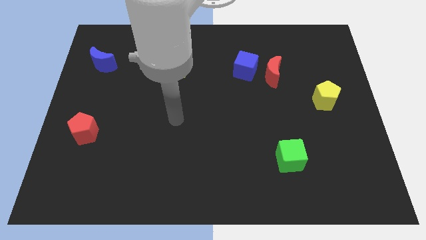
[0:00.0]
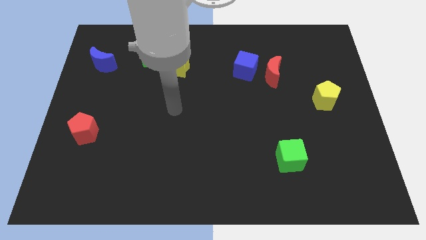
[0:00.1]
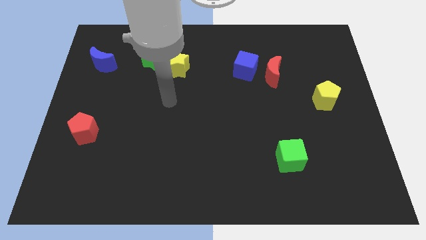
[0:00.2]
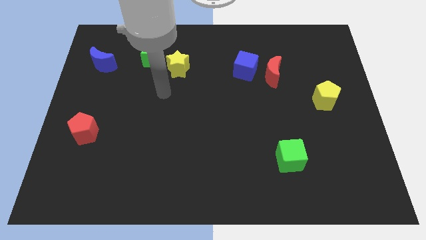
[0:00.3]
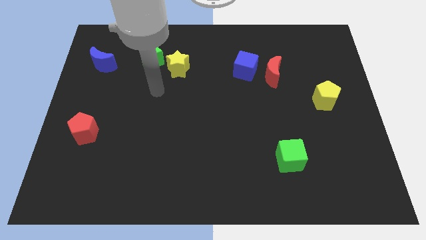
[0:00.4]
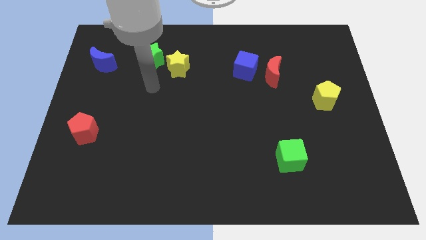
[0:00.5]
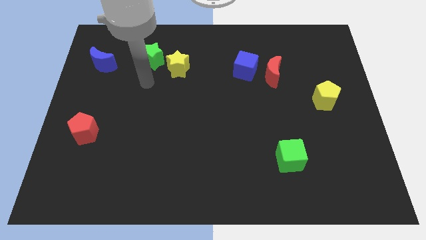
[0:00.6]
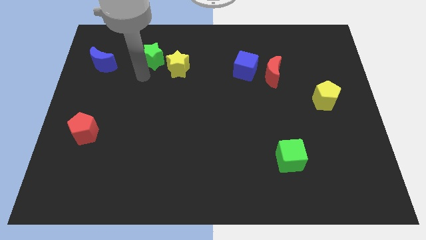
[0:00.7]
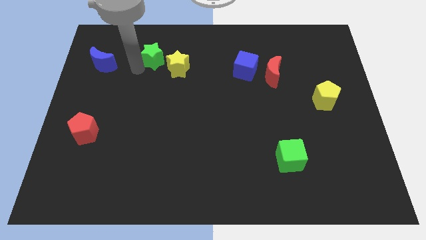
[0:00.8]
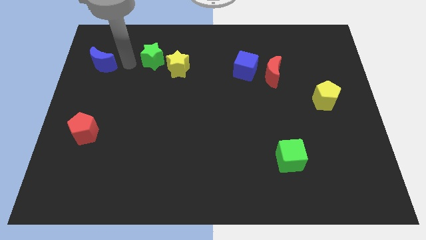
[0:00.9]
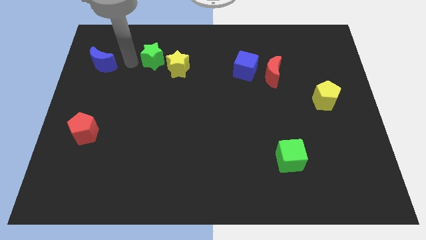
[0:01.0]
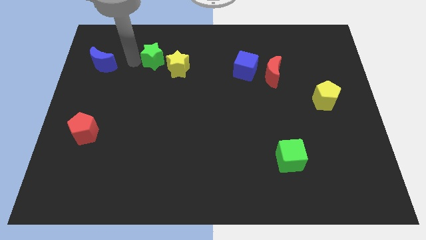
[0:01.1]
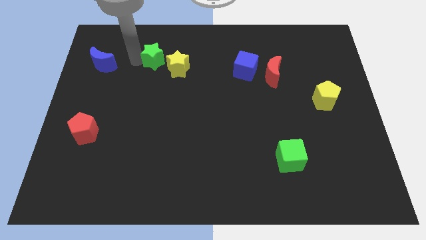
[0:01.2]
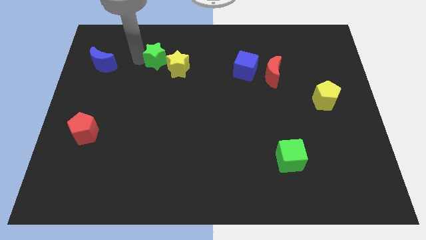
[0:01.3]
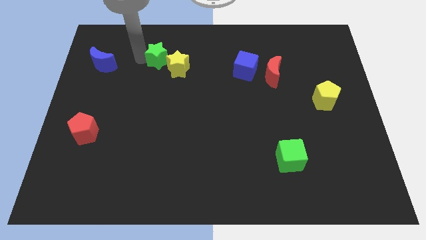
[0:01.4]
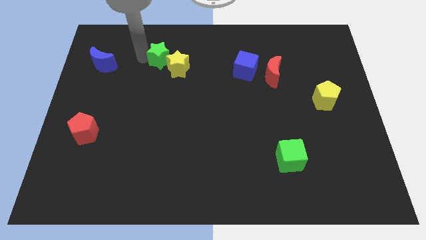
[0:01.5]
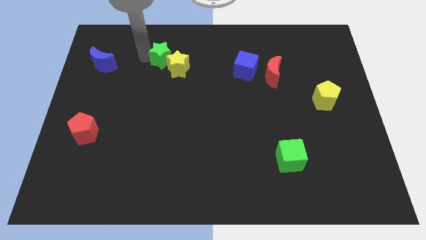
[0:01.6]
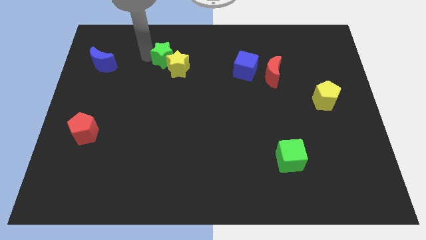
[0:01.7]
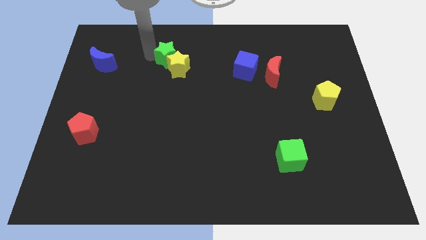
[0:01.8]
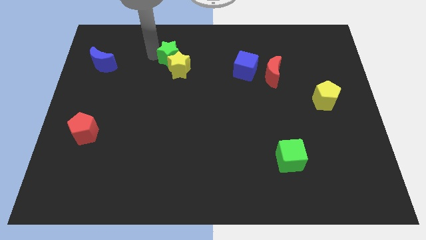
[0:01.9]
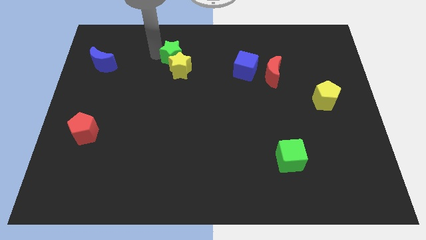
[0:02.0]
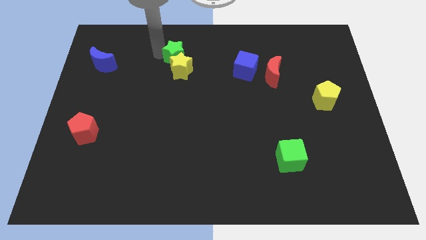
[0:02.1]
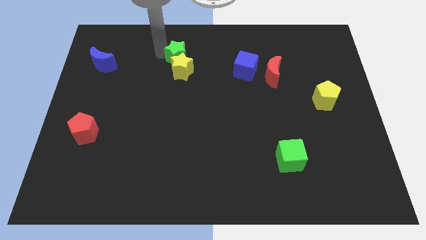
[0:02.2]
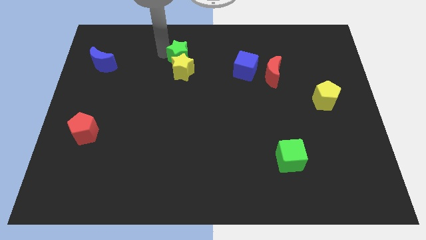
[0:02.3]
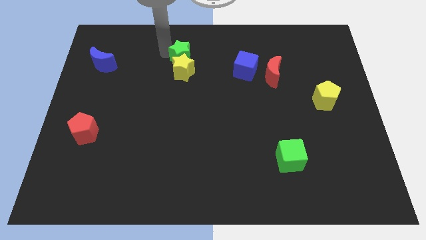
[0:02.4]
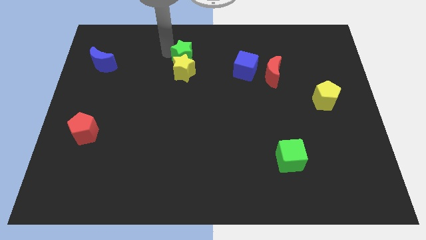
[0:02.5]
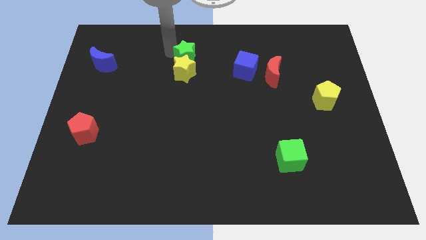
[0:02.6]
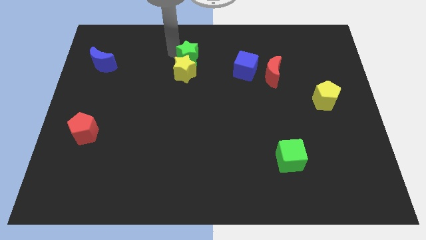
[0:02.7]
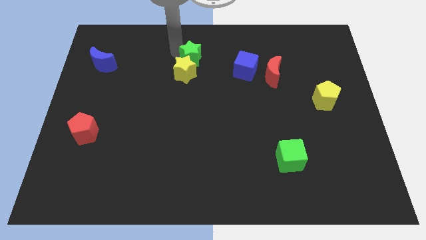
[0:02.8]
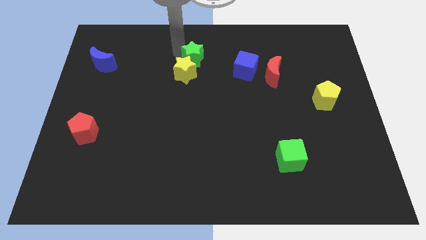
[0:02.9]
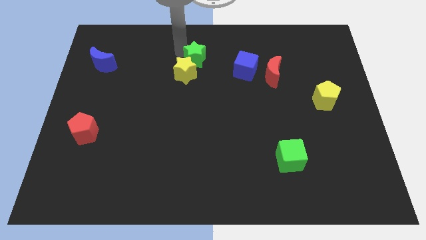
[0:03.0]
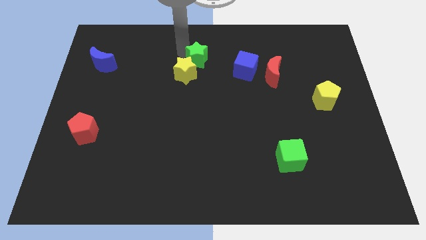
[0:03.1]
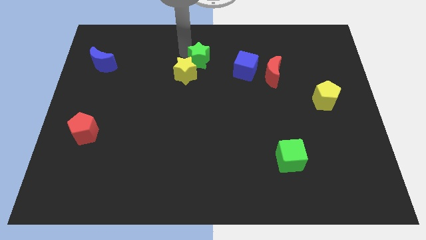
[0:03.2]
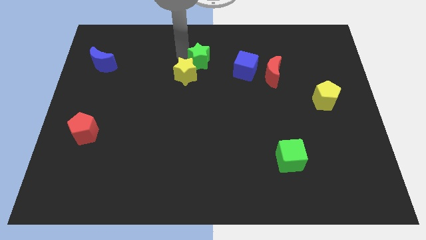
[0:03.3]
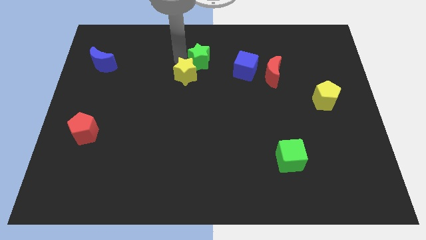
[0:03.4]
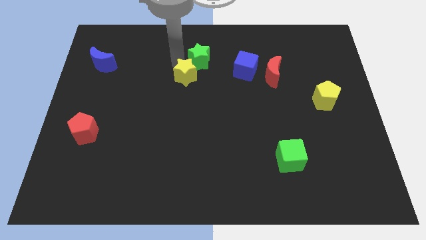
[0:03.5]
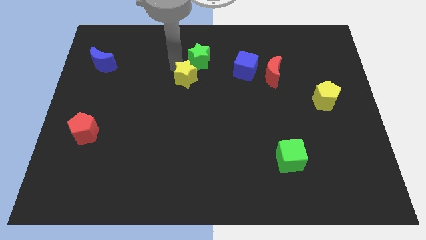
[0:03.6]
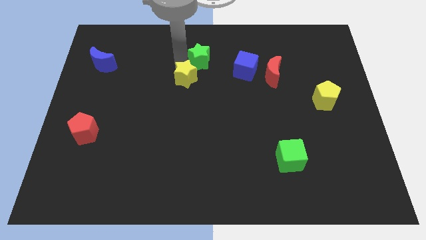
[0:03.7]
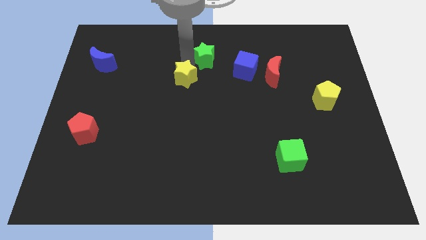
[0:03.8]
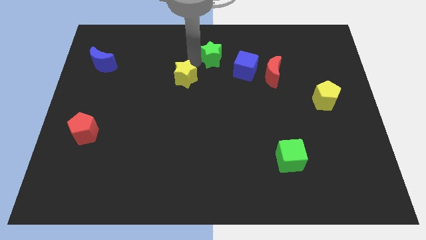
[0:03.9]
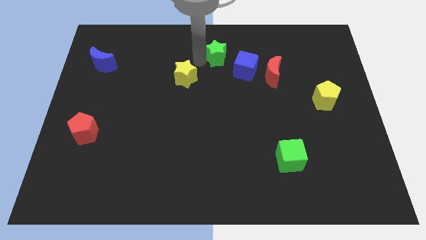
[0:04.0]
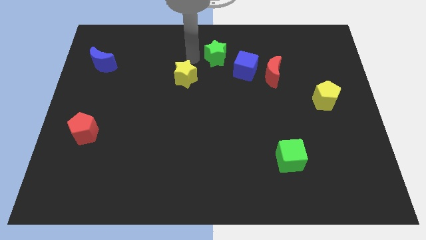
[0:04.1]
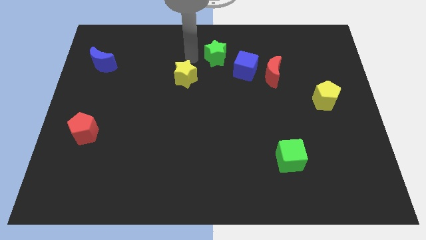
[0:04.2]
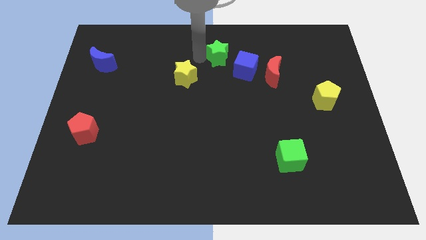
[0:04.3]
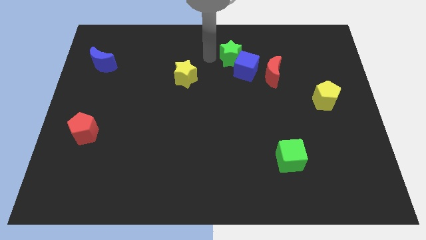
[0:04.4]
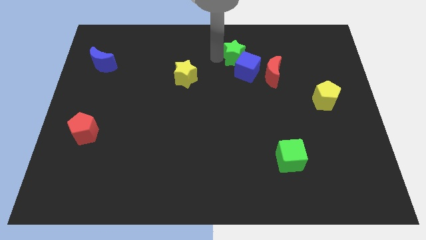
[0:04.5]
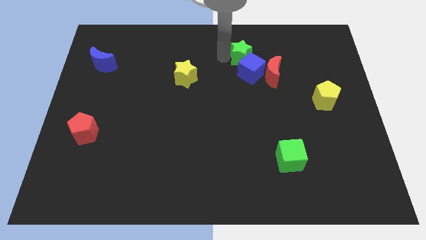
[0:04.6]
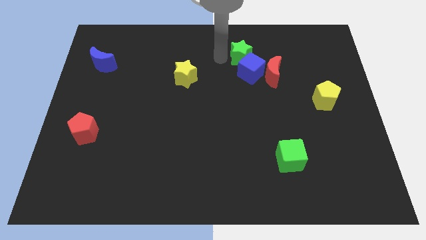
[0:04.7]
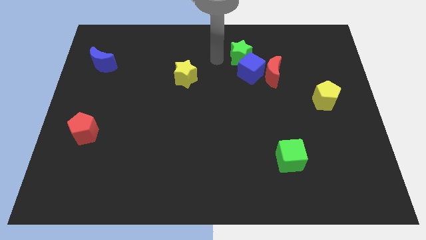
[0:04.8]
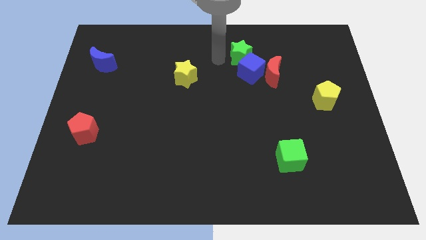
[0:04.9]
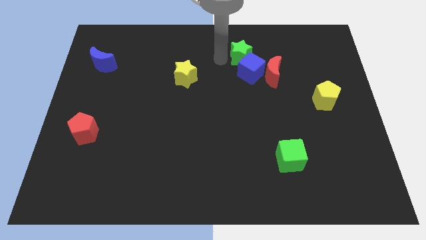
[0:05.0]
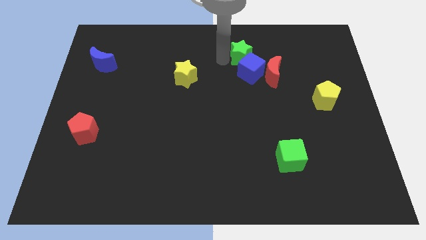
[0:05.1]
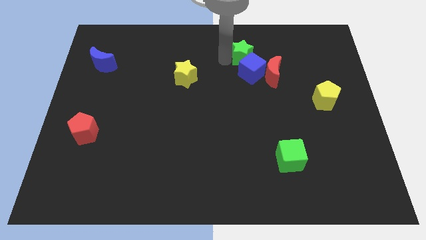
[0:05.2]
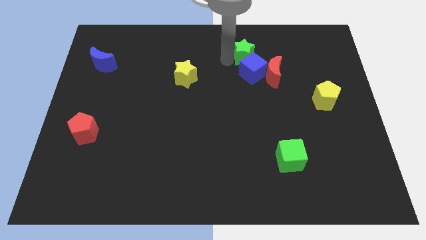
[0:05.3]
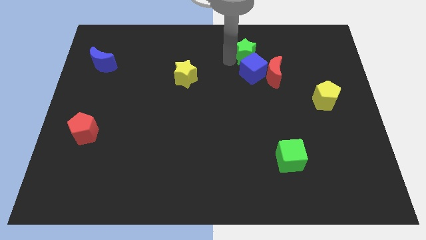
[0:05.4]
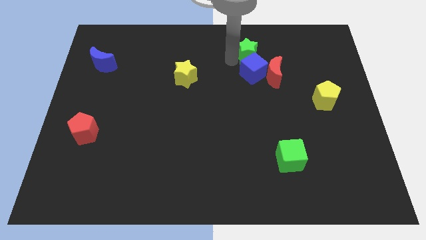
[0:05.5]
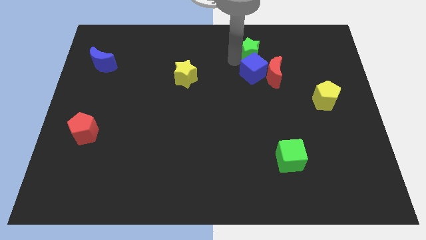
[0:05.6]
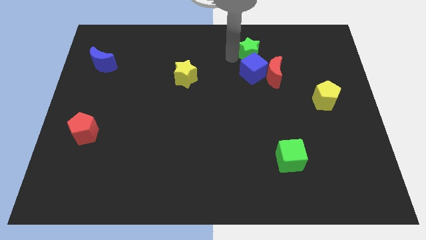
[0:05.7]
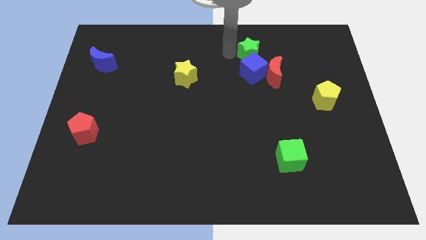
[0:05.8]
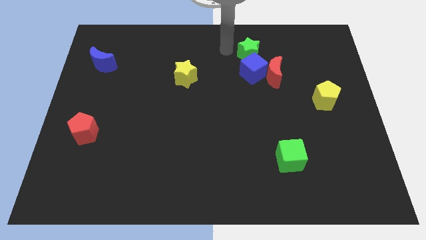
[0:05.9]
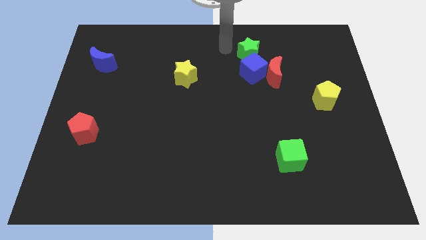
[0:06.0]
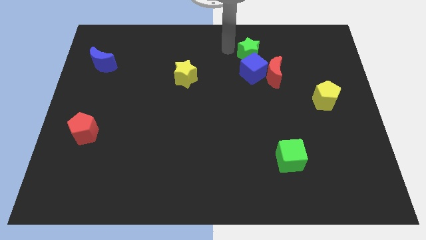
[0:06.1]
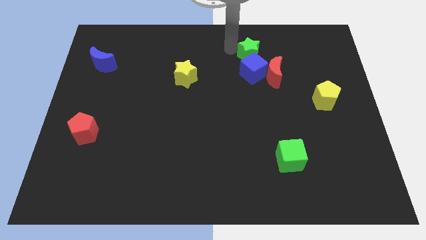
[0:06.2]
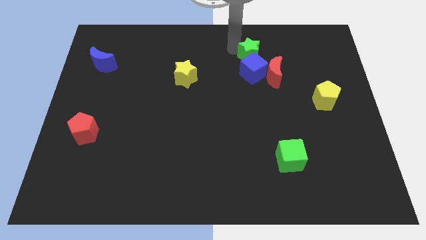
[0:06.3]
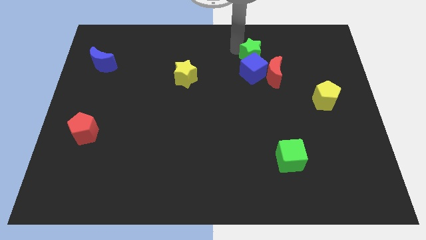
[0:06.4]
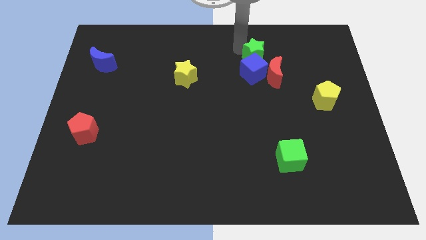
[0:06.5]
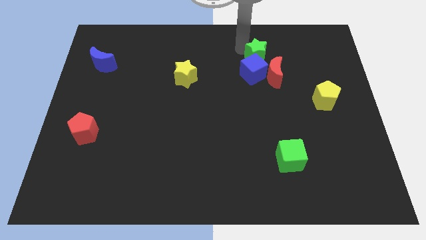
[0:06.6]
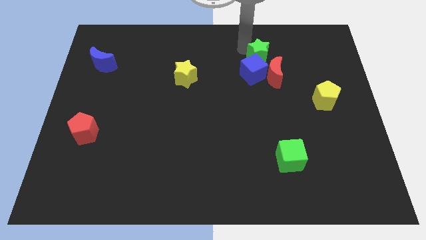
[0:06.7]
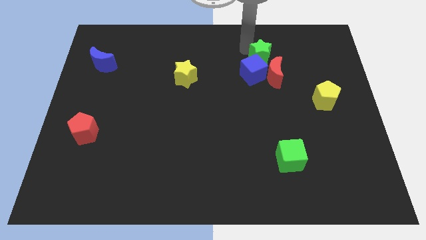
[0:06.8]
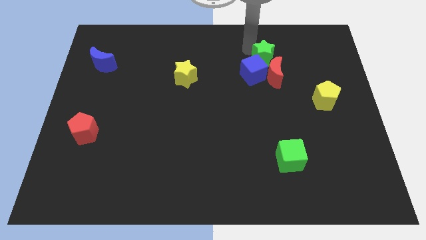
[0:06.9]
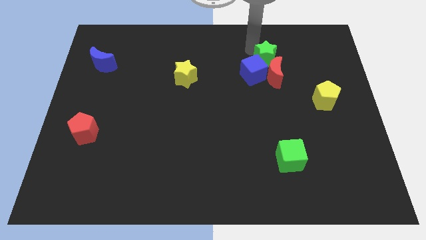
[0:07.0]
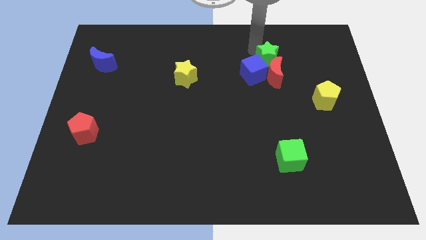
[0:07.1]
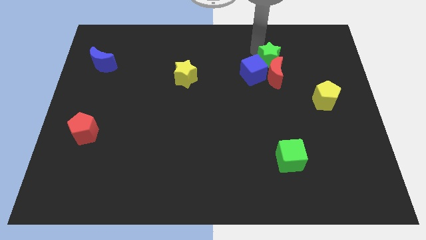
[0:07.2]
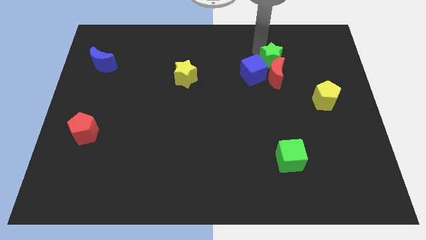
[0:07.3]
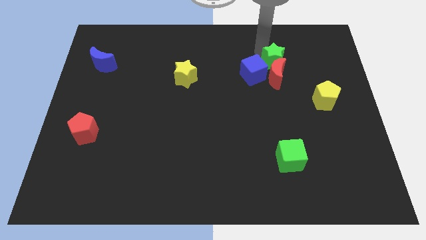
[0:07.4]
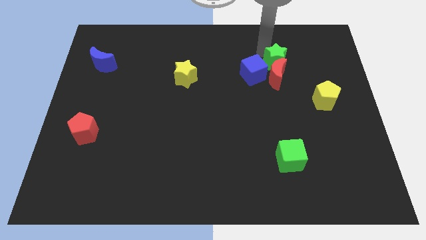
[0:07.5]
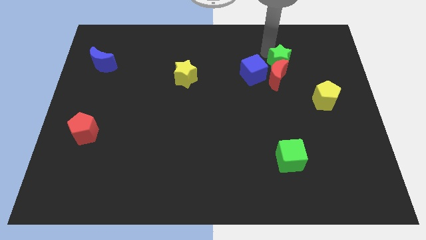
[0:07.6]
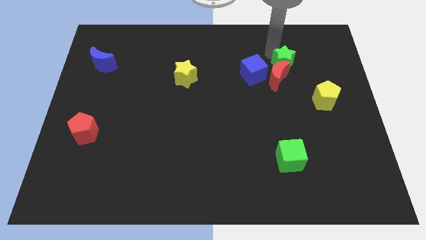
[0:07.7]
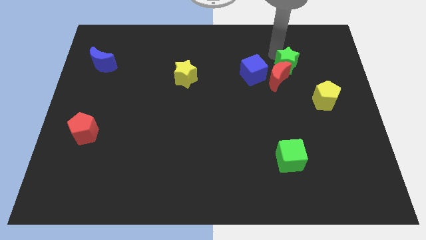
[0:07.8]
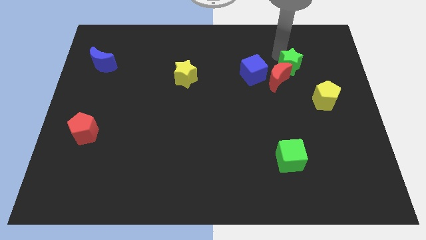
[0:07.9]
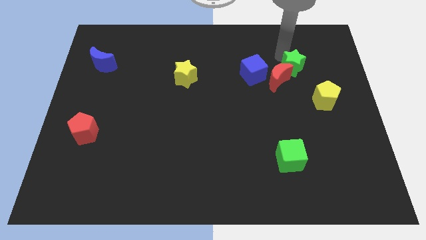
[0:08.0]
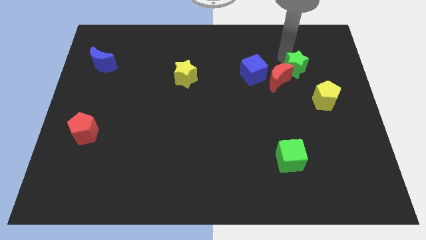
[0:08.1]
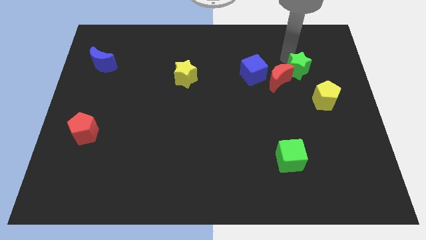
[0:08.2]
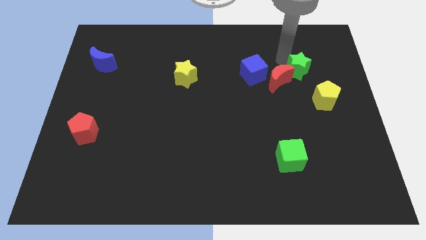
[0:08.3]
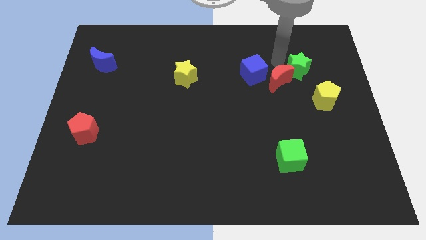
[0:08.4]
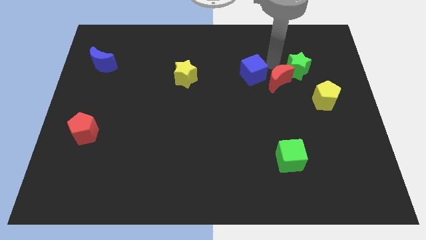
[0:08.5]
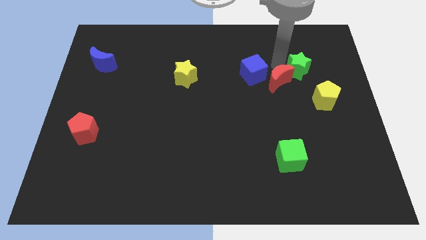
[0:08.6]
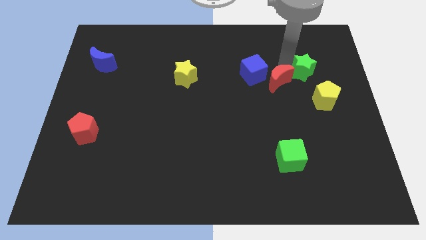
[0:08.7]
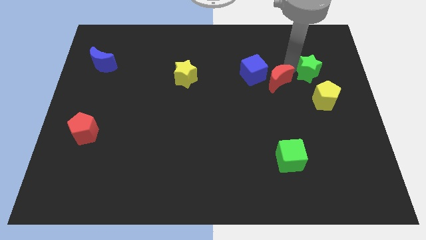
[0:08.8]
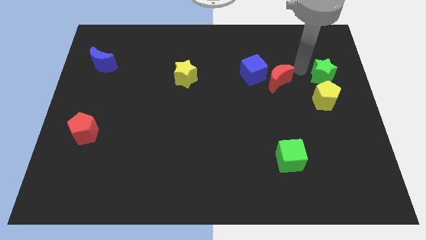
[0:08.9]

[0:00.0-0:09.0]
slide the green star to the right side of the board
